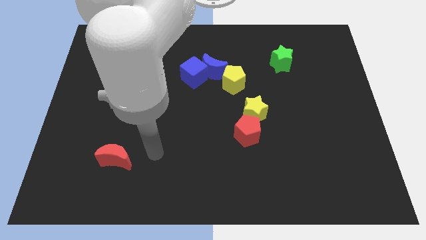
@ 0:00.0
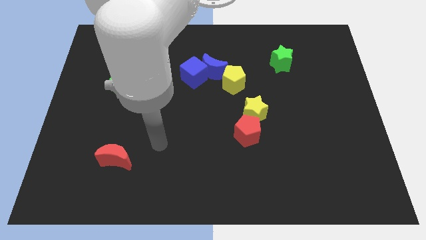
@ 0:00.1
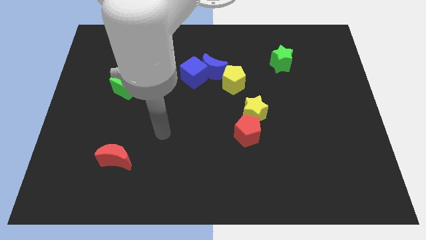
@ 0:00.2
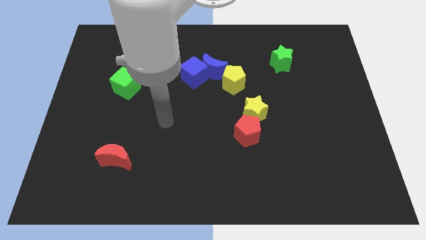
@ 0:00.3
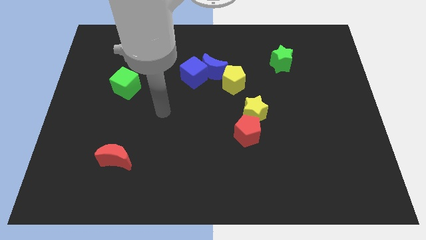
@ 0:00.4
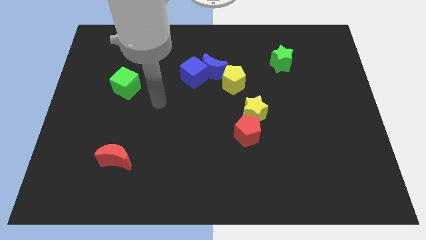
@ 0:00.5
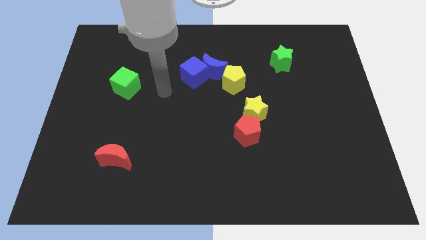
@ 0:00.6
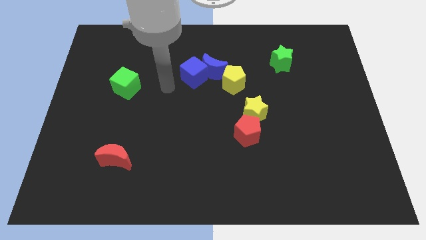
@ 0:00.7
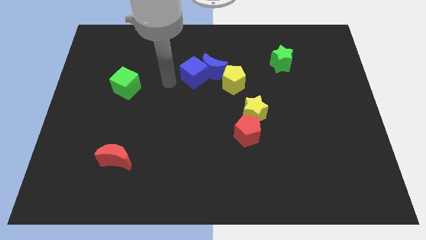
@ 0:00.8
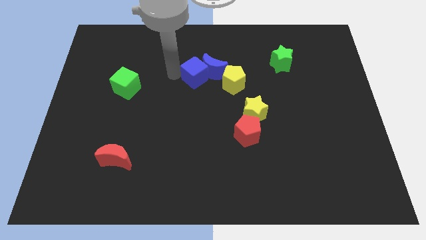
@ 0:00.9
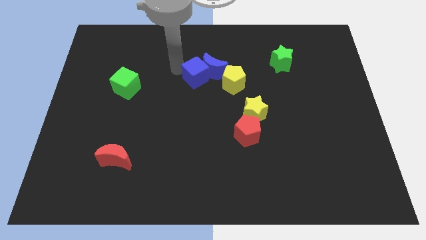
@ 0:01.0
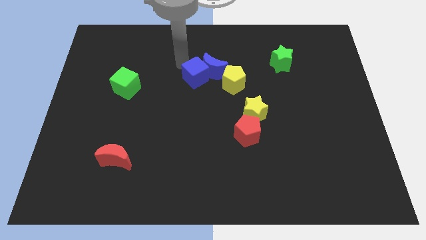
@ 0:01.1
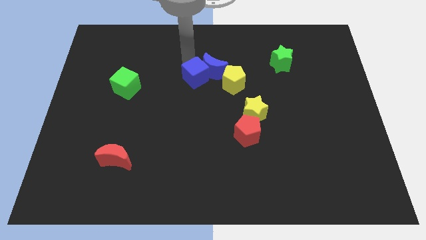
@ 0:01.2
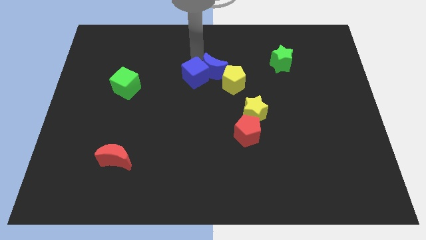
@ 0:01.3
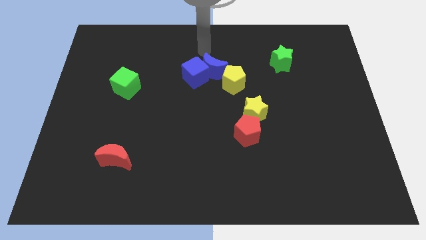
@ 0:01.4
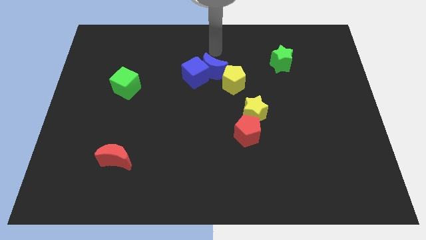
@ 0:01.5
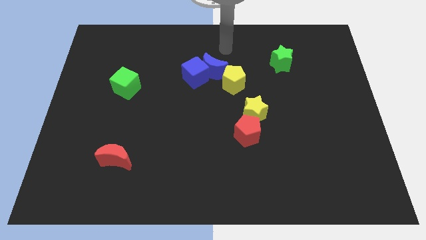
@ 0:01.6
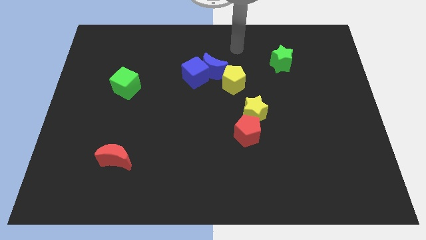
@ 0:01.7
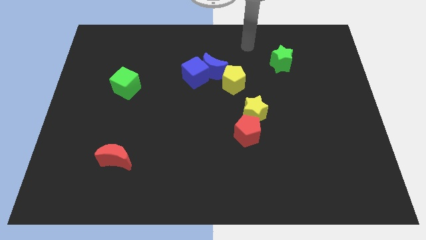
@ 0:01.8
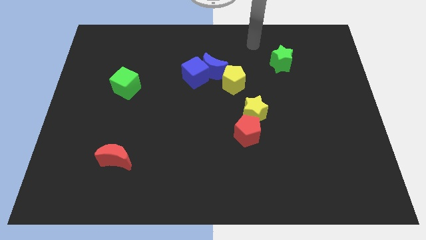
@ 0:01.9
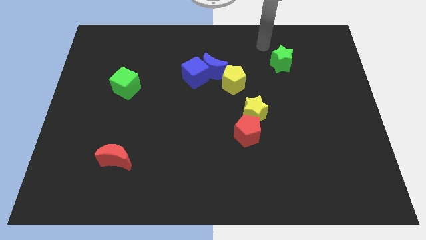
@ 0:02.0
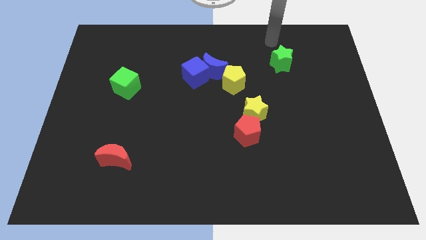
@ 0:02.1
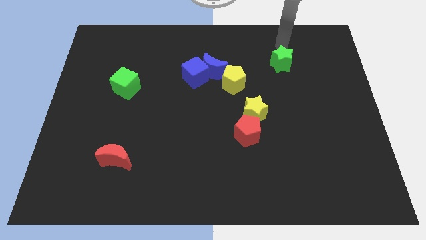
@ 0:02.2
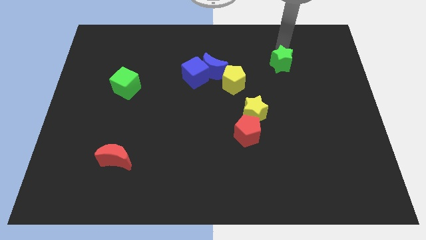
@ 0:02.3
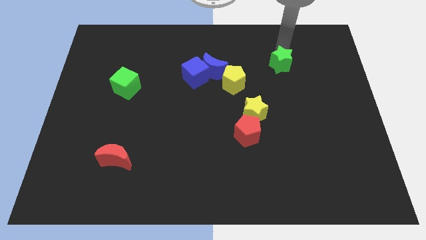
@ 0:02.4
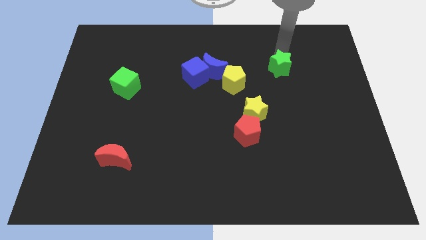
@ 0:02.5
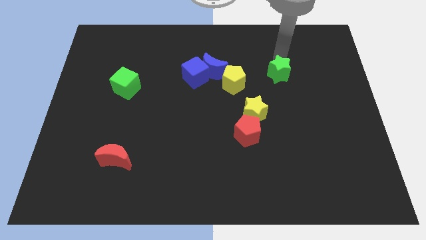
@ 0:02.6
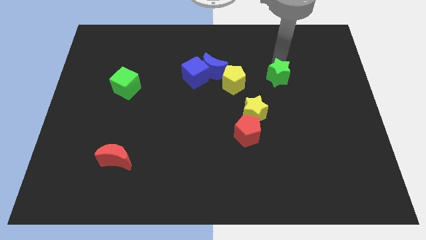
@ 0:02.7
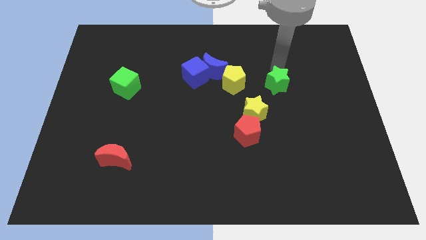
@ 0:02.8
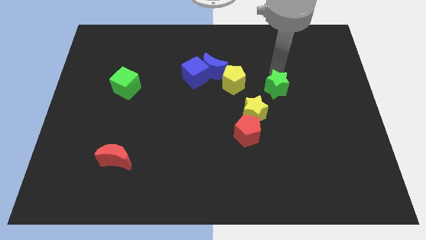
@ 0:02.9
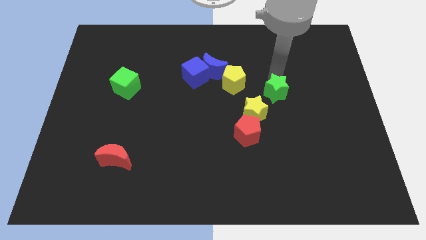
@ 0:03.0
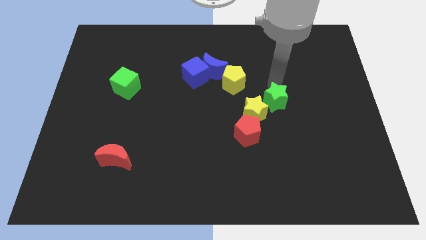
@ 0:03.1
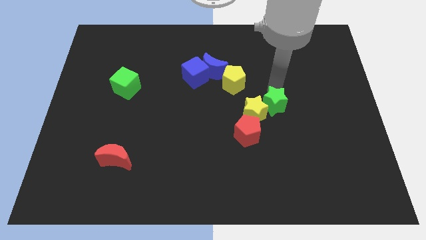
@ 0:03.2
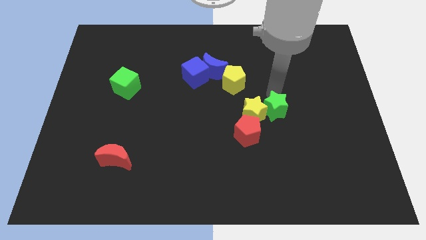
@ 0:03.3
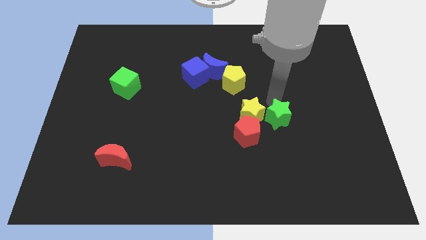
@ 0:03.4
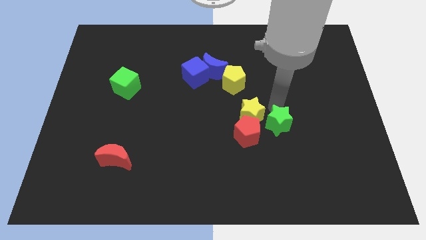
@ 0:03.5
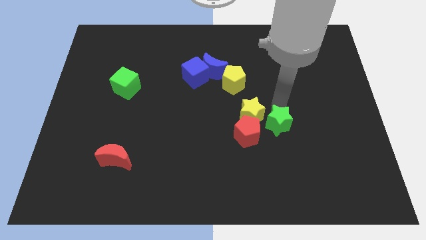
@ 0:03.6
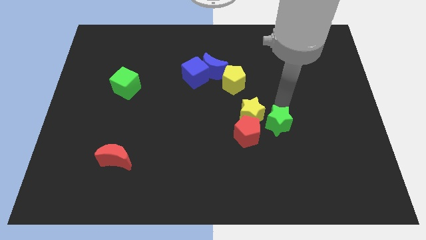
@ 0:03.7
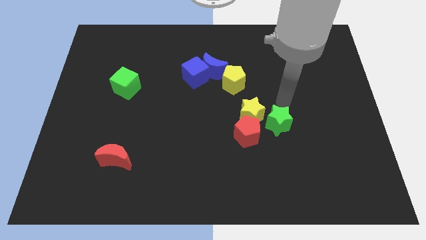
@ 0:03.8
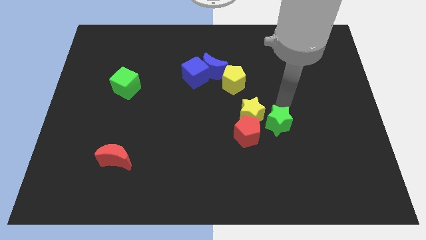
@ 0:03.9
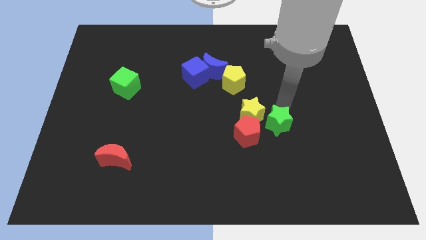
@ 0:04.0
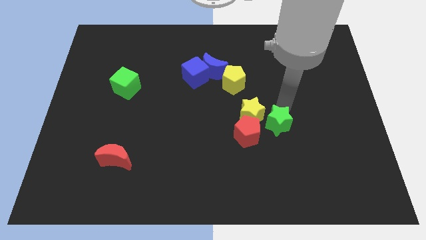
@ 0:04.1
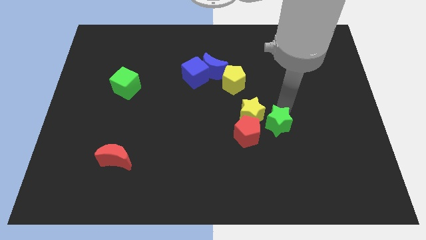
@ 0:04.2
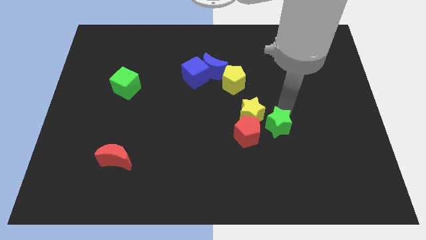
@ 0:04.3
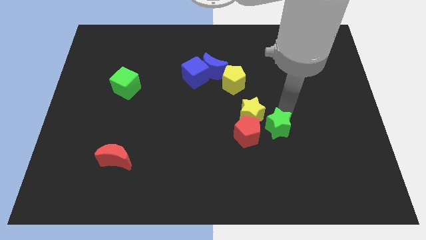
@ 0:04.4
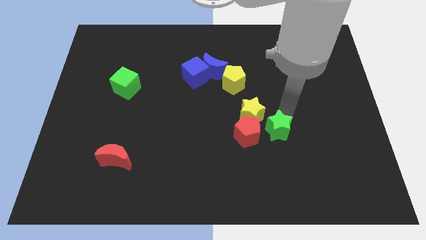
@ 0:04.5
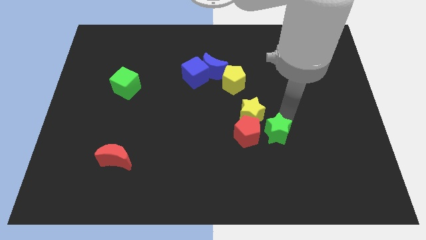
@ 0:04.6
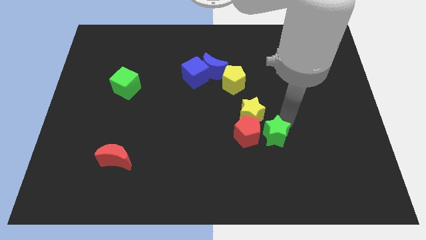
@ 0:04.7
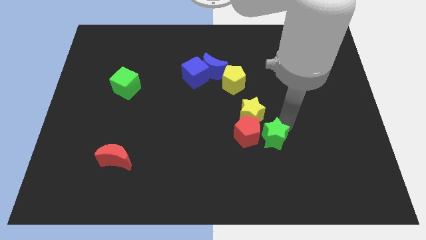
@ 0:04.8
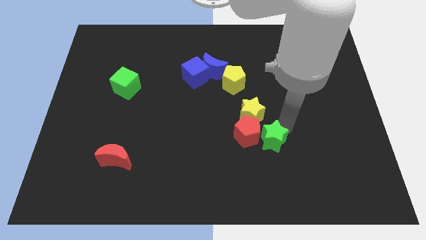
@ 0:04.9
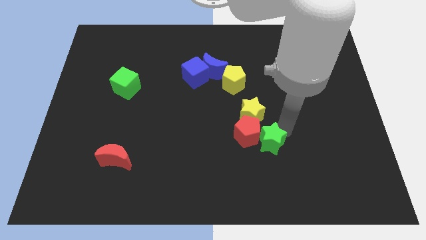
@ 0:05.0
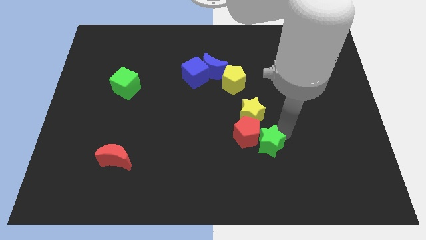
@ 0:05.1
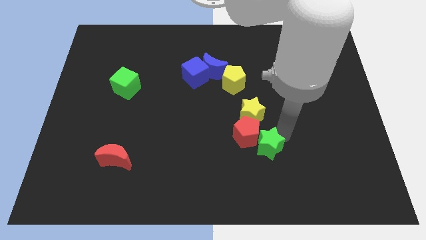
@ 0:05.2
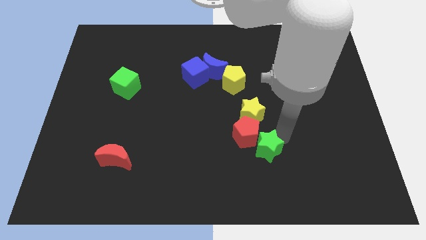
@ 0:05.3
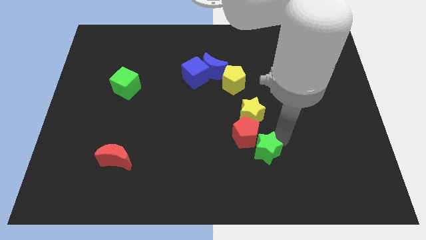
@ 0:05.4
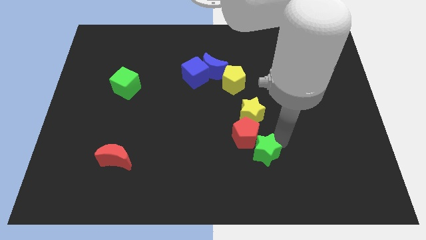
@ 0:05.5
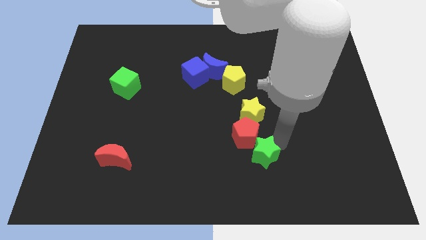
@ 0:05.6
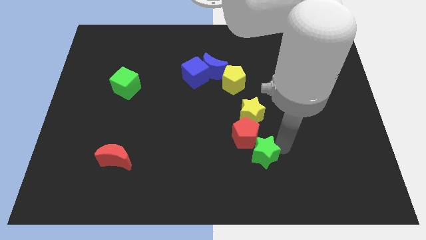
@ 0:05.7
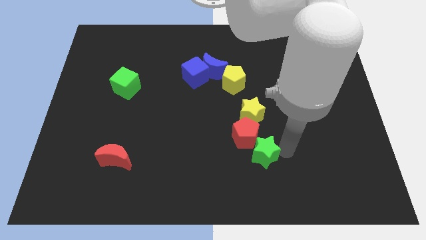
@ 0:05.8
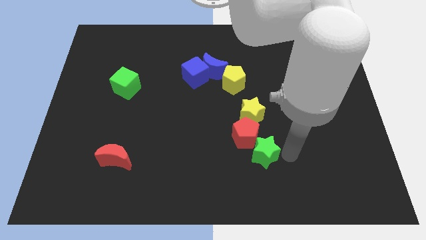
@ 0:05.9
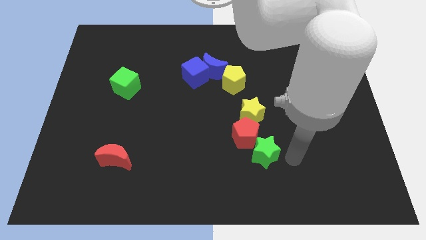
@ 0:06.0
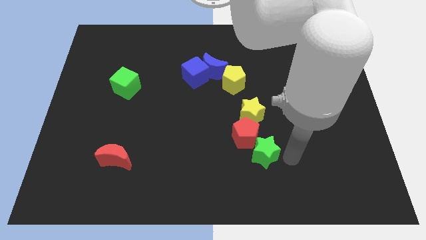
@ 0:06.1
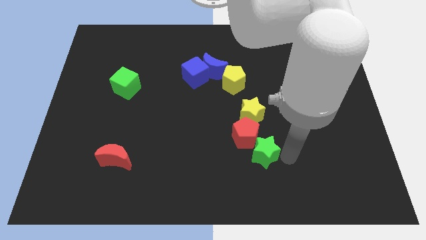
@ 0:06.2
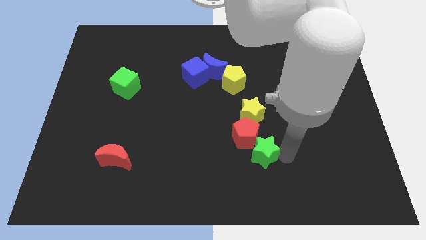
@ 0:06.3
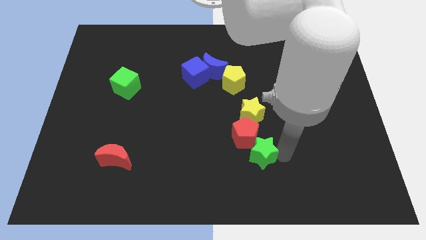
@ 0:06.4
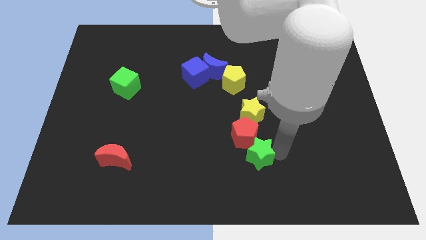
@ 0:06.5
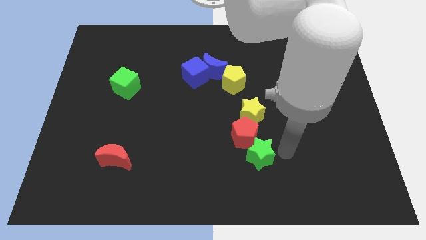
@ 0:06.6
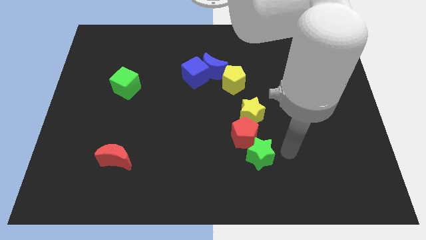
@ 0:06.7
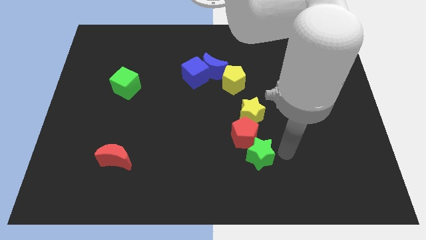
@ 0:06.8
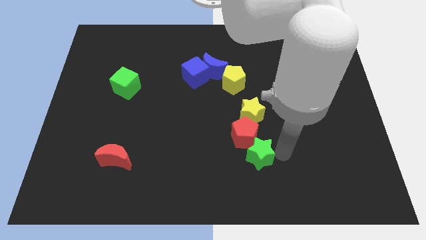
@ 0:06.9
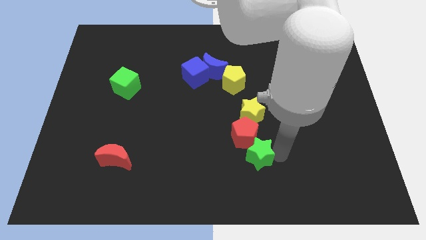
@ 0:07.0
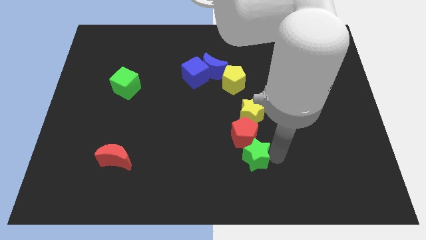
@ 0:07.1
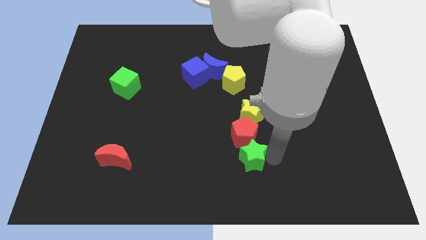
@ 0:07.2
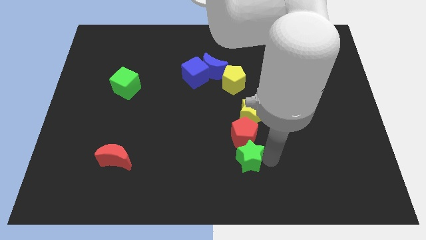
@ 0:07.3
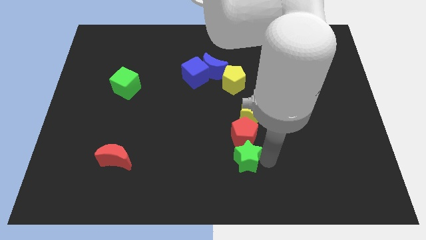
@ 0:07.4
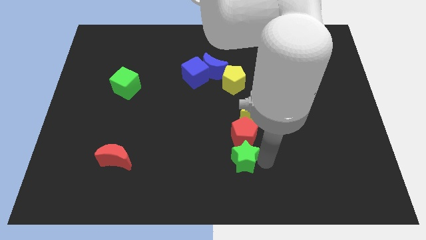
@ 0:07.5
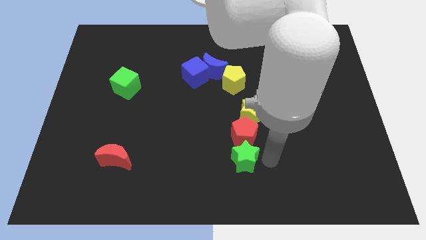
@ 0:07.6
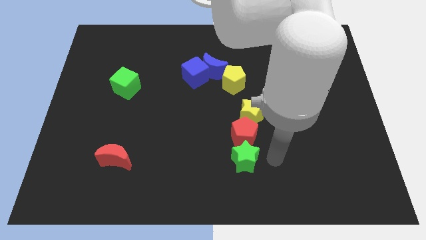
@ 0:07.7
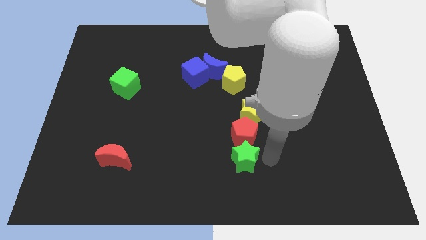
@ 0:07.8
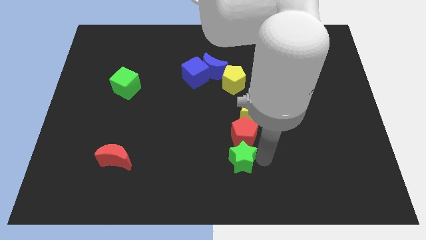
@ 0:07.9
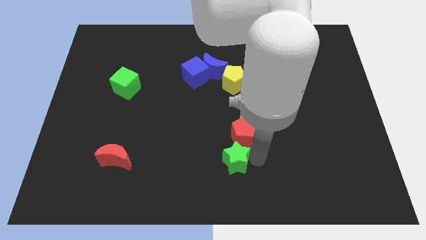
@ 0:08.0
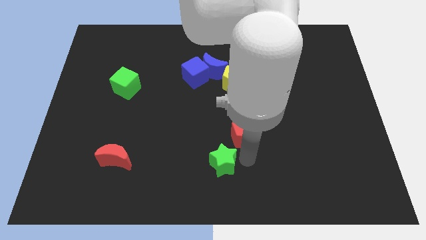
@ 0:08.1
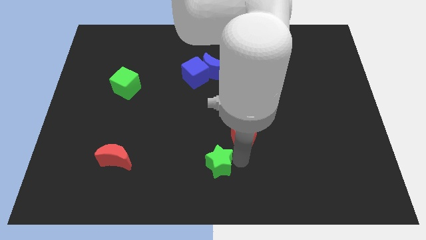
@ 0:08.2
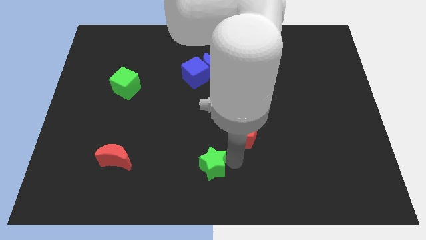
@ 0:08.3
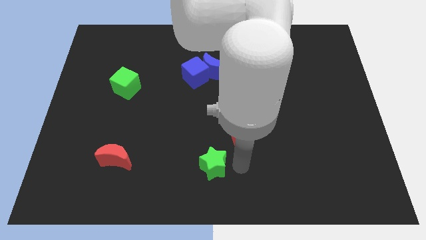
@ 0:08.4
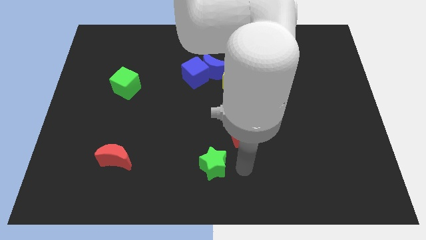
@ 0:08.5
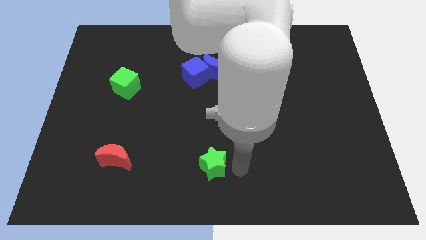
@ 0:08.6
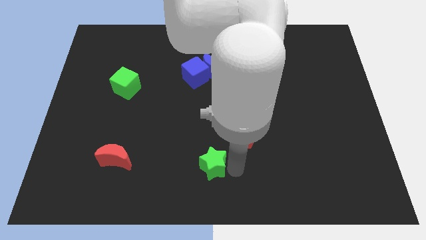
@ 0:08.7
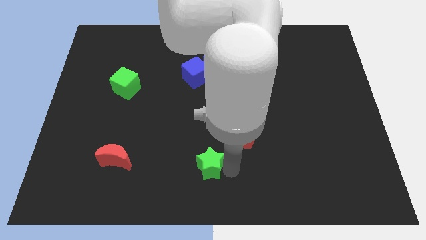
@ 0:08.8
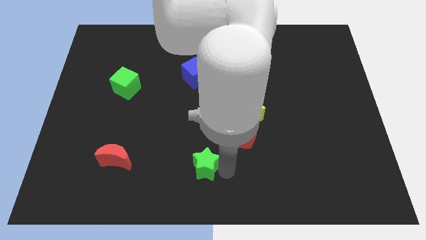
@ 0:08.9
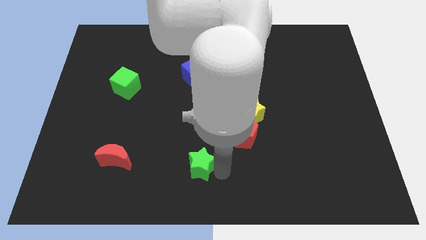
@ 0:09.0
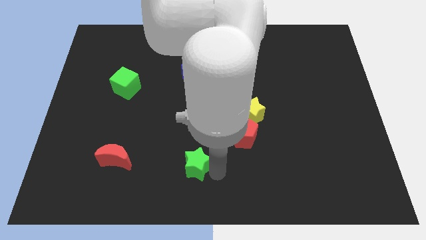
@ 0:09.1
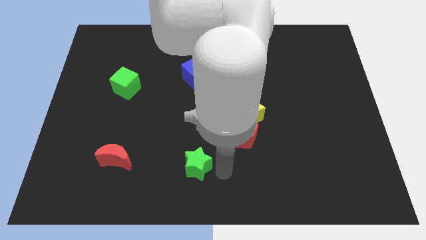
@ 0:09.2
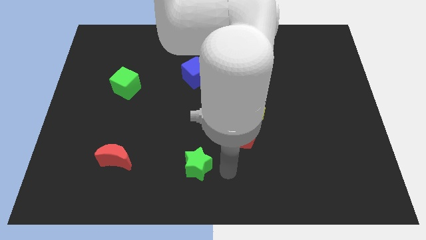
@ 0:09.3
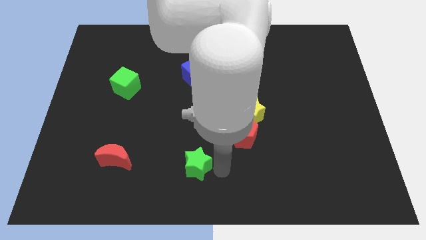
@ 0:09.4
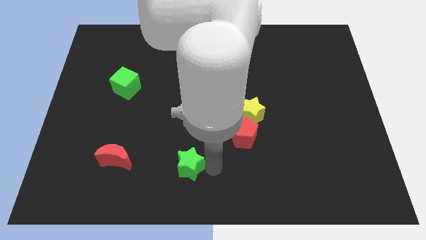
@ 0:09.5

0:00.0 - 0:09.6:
push the green star to the right side of the red moon
